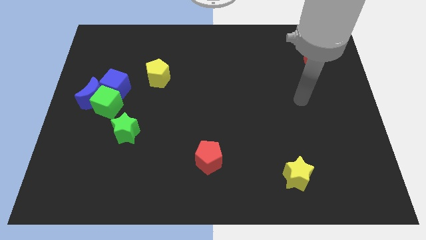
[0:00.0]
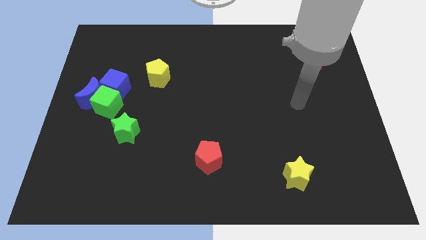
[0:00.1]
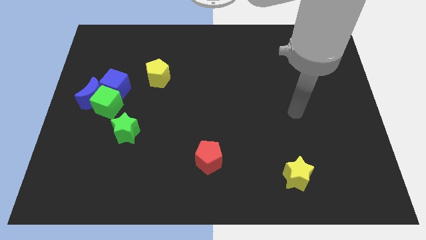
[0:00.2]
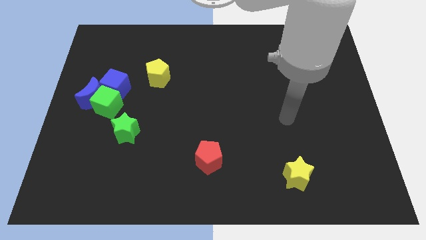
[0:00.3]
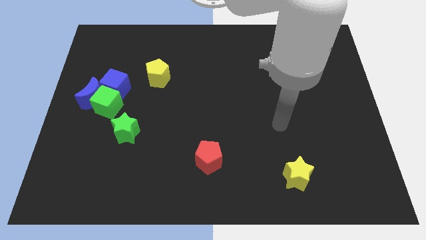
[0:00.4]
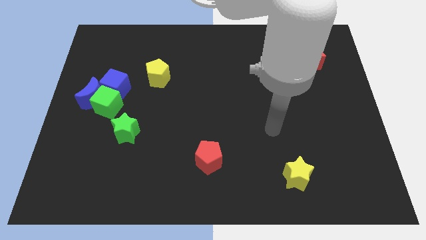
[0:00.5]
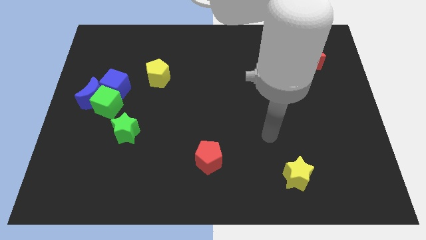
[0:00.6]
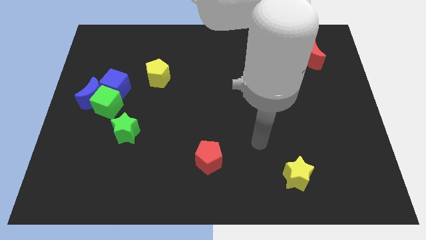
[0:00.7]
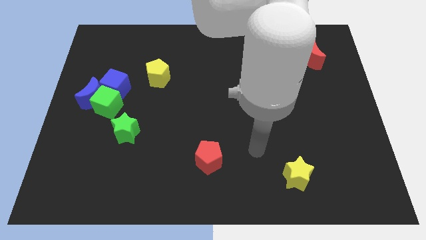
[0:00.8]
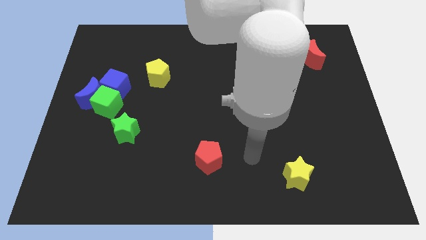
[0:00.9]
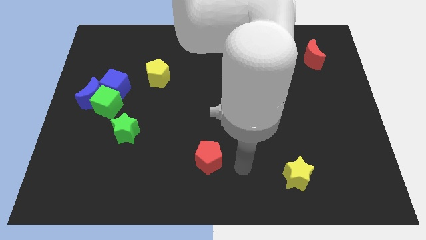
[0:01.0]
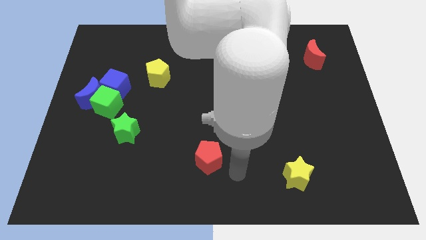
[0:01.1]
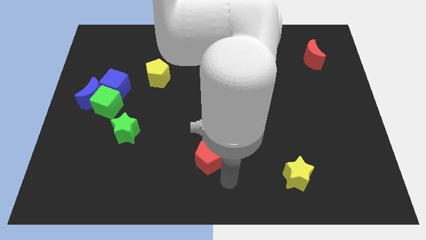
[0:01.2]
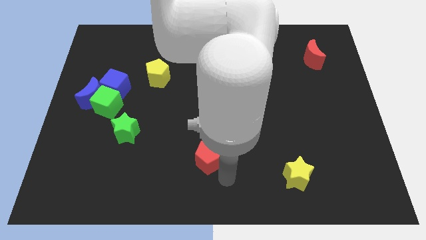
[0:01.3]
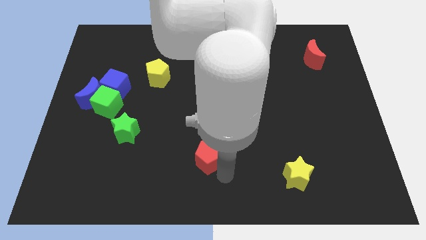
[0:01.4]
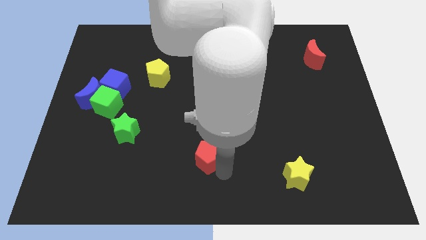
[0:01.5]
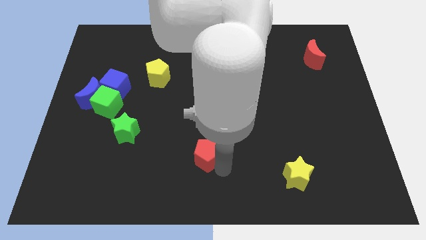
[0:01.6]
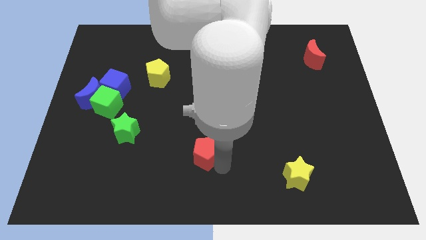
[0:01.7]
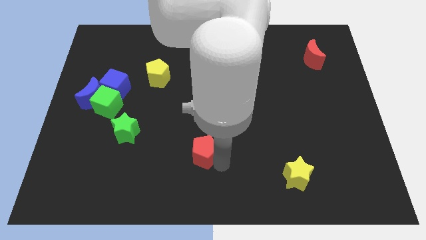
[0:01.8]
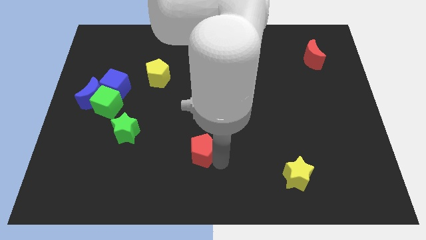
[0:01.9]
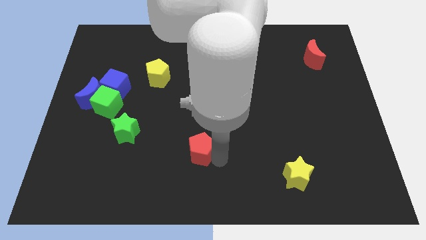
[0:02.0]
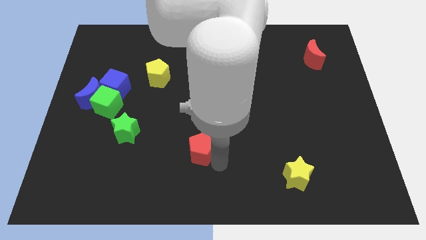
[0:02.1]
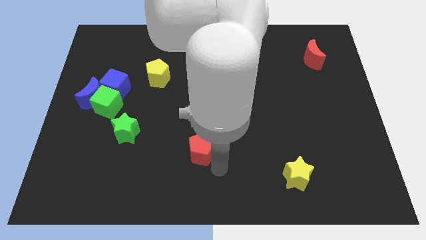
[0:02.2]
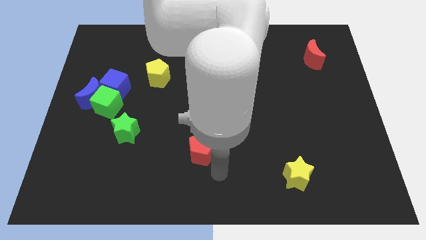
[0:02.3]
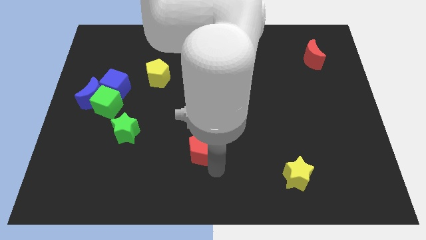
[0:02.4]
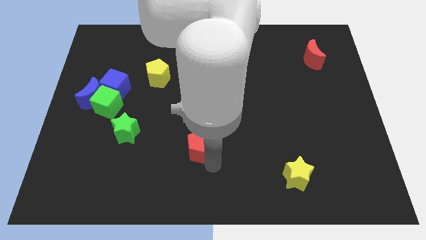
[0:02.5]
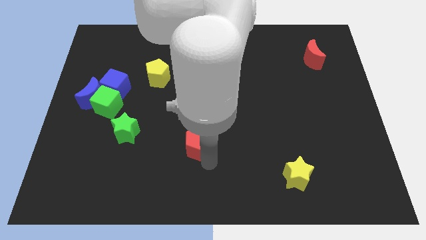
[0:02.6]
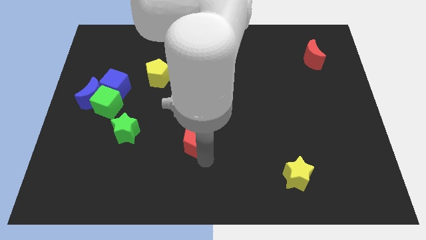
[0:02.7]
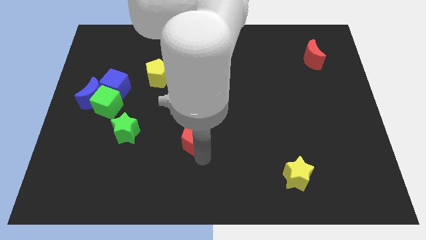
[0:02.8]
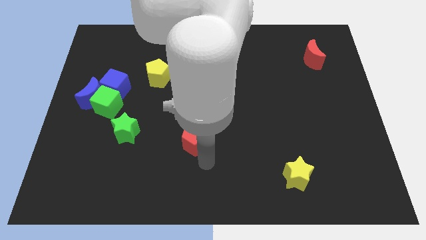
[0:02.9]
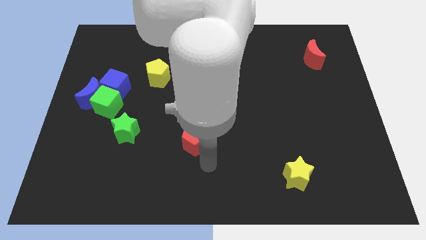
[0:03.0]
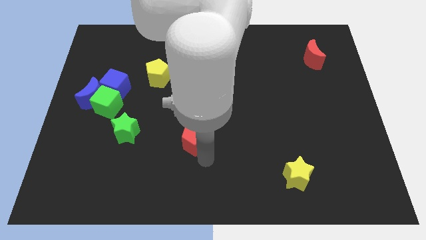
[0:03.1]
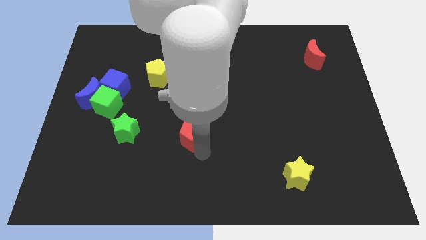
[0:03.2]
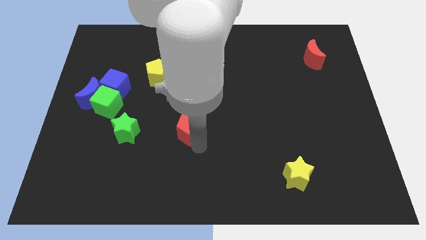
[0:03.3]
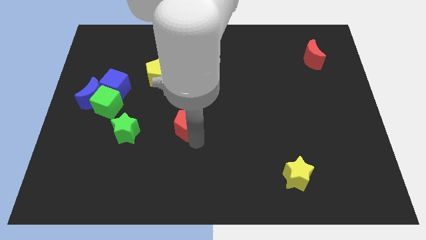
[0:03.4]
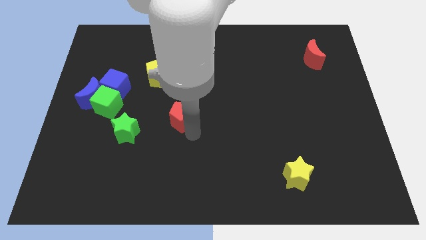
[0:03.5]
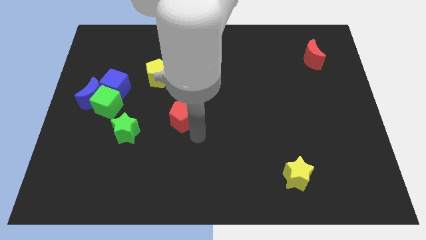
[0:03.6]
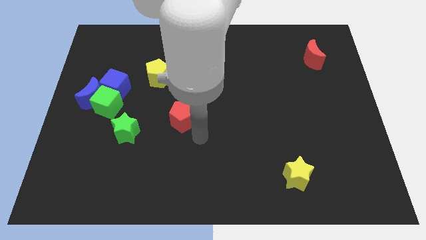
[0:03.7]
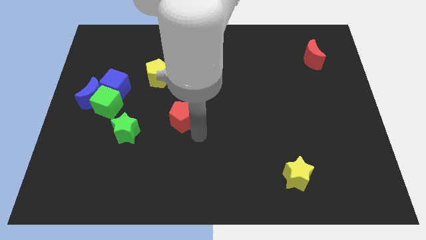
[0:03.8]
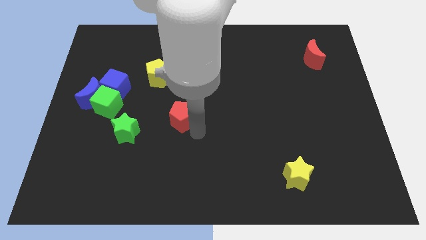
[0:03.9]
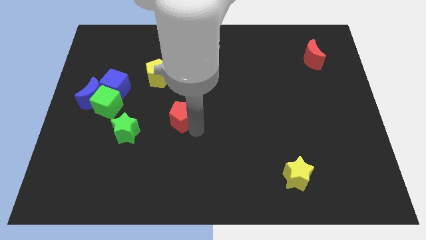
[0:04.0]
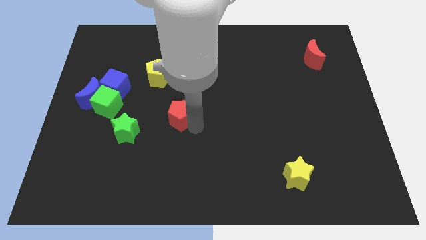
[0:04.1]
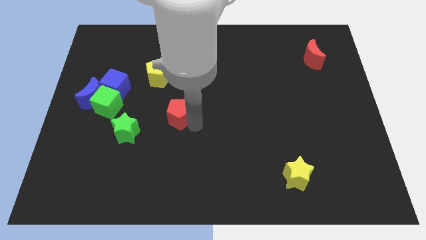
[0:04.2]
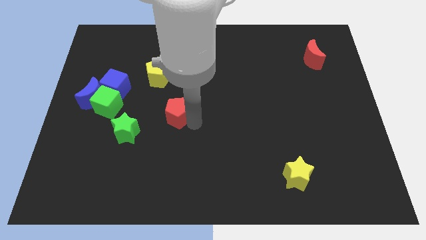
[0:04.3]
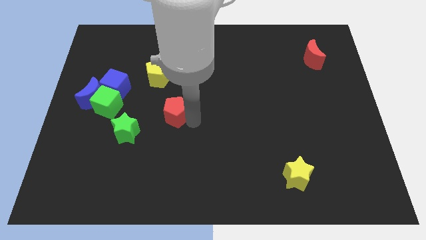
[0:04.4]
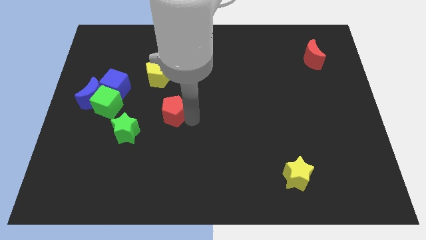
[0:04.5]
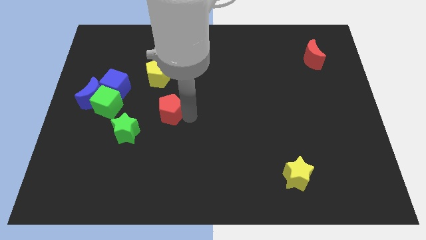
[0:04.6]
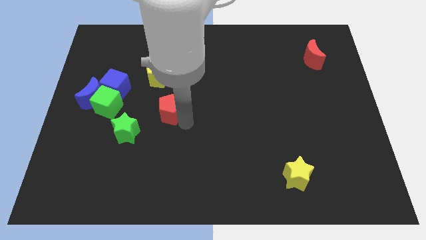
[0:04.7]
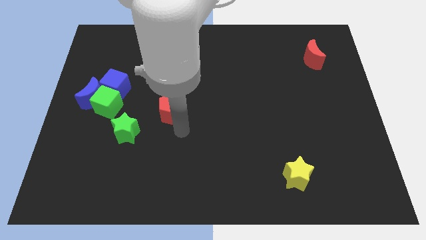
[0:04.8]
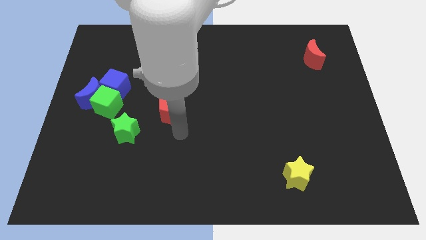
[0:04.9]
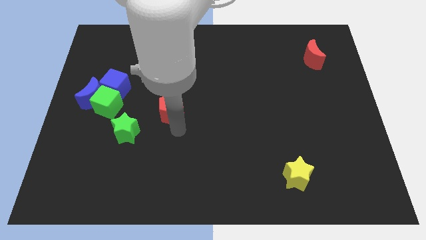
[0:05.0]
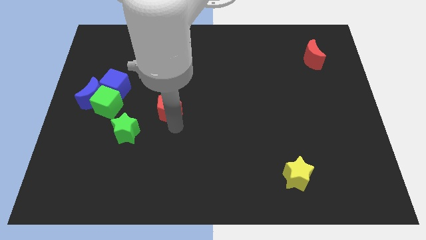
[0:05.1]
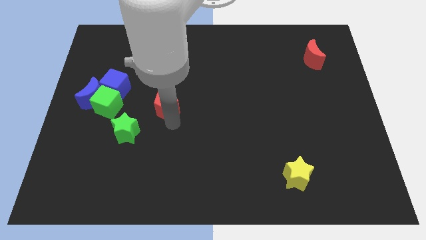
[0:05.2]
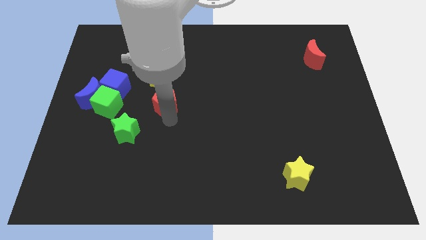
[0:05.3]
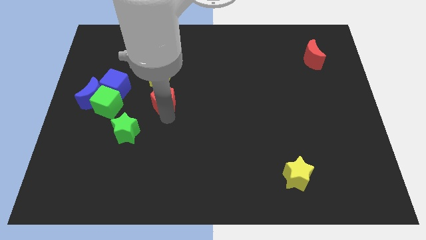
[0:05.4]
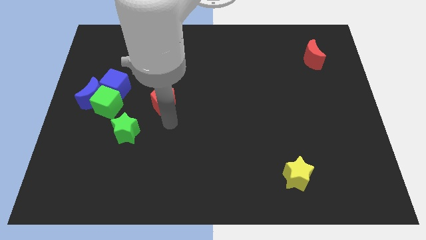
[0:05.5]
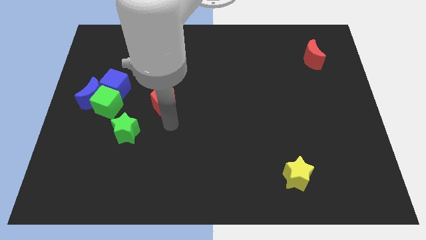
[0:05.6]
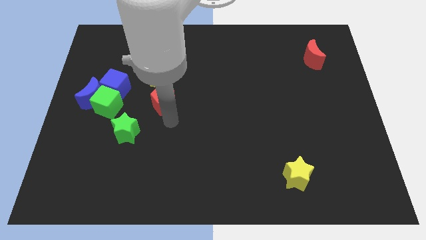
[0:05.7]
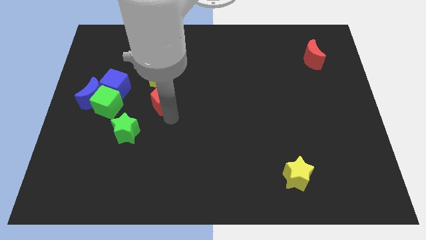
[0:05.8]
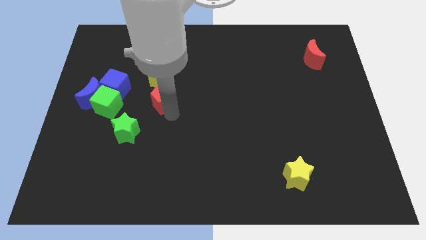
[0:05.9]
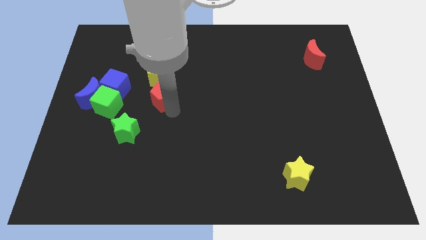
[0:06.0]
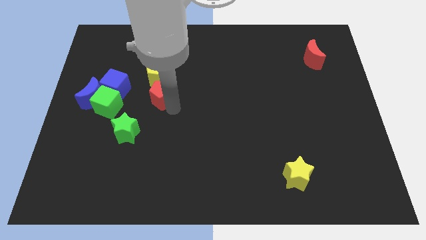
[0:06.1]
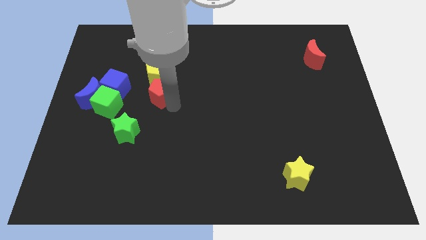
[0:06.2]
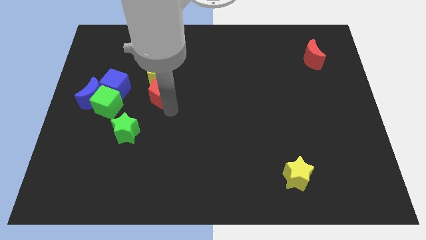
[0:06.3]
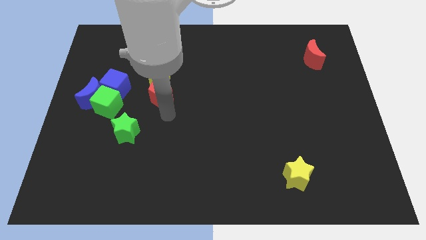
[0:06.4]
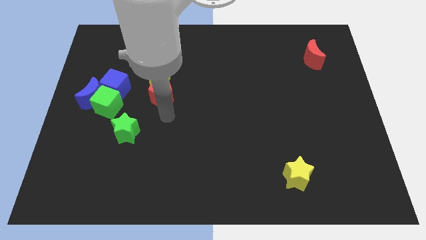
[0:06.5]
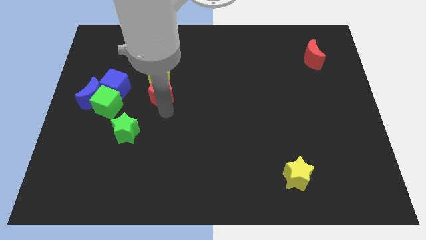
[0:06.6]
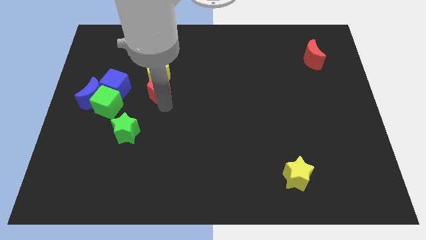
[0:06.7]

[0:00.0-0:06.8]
move the red pentagon close to the yellow pentagon

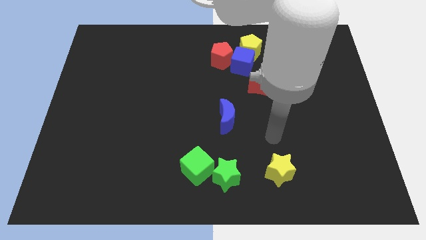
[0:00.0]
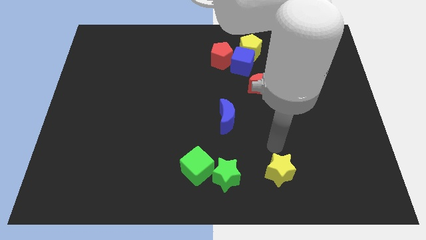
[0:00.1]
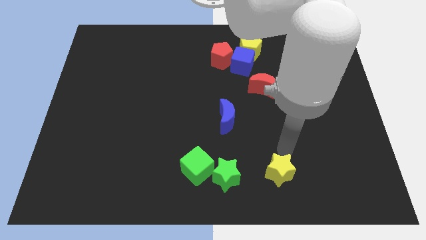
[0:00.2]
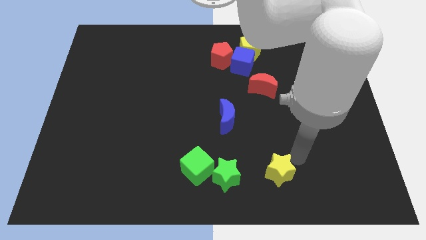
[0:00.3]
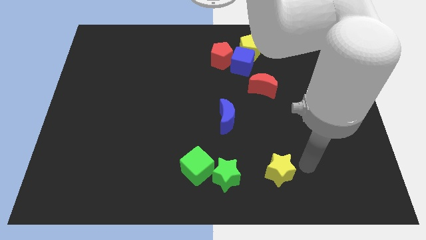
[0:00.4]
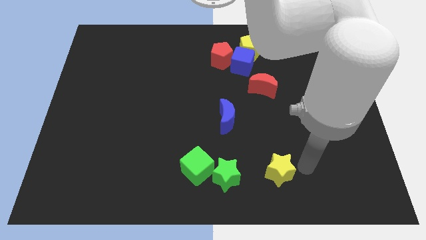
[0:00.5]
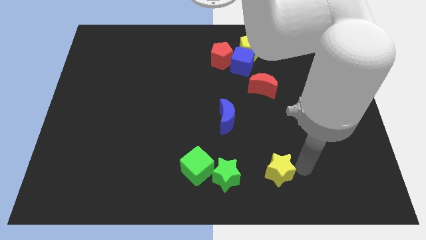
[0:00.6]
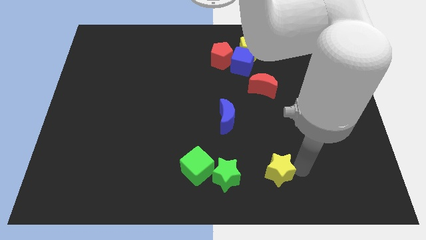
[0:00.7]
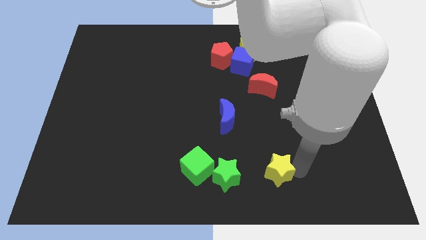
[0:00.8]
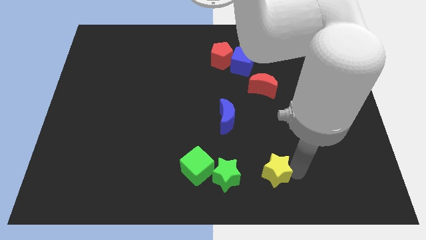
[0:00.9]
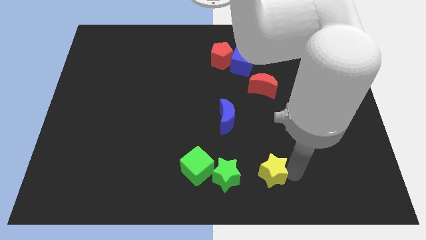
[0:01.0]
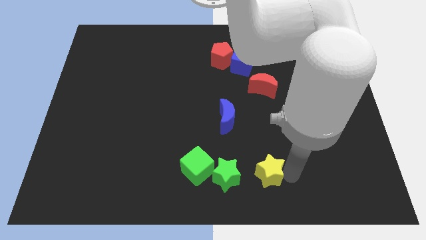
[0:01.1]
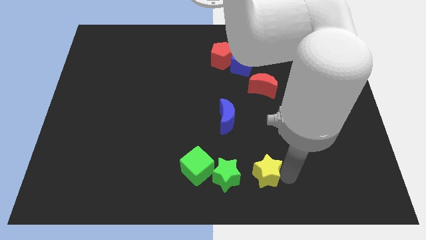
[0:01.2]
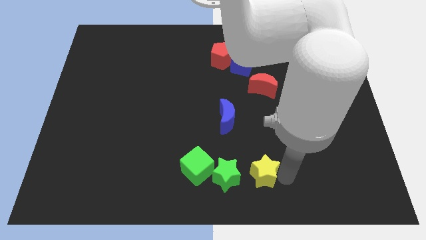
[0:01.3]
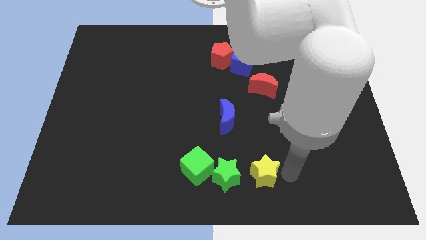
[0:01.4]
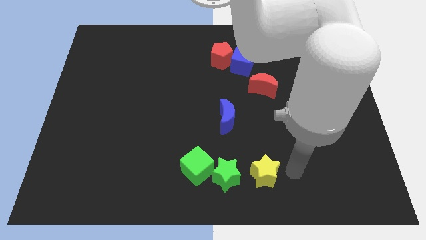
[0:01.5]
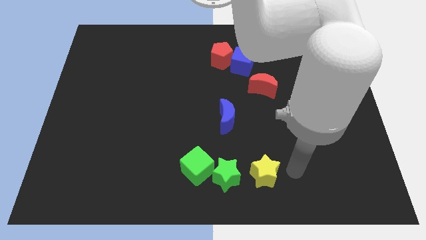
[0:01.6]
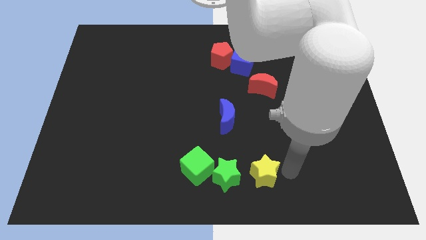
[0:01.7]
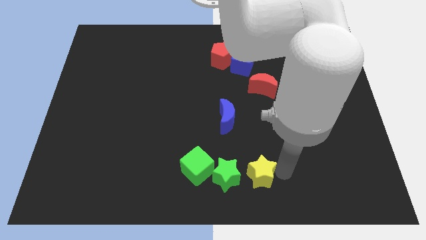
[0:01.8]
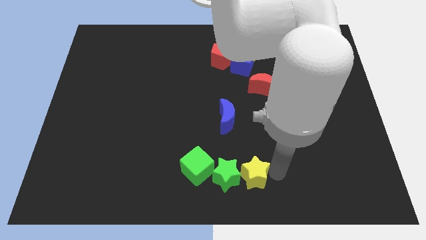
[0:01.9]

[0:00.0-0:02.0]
move the yellow star close to the green star
